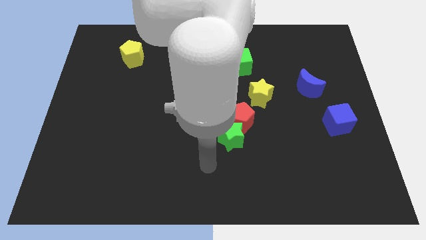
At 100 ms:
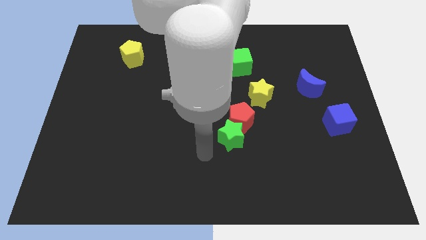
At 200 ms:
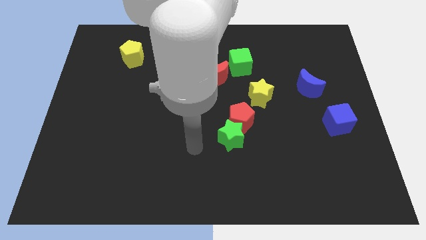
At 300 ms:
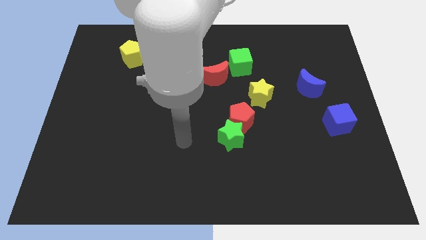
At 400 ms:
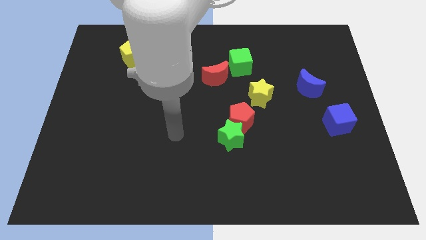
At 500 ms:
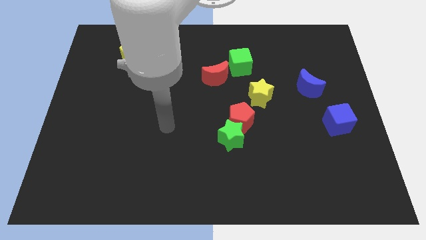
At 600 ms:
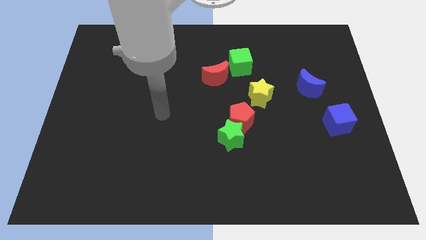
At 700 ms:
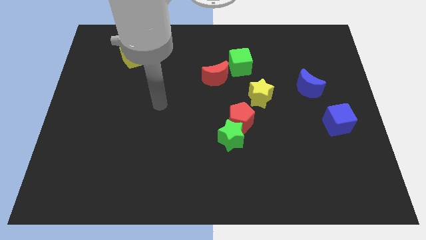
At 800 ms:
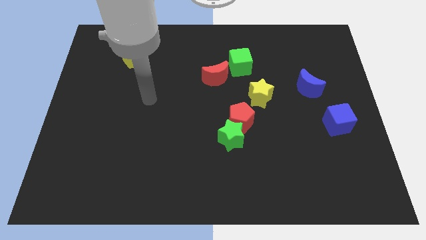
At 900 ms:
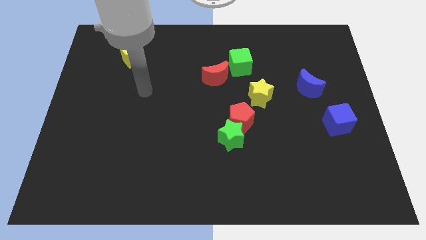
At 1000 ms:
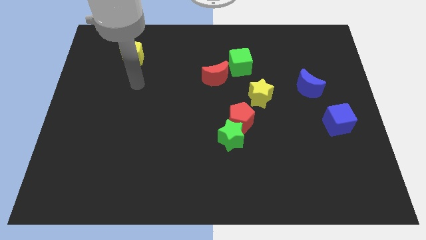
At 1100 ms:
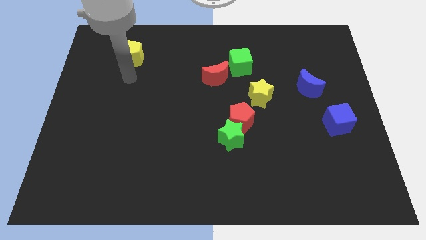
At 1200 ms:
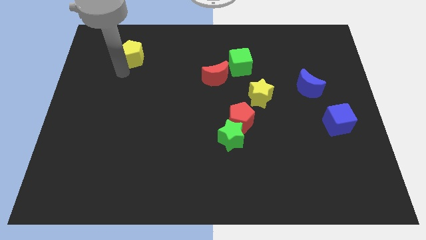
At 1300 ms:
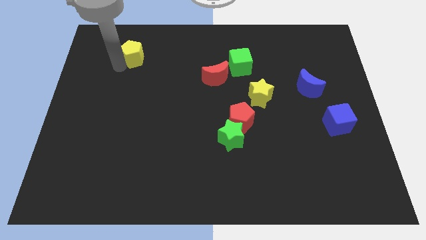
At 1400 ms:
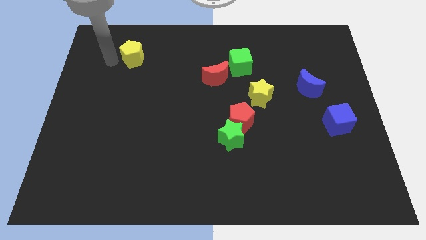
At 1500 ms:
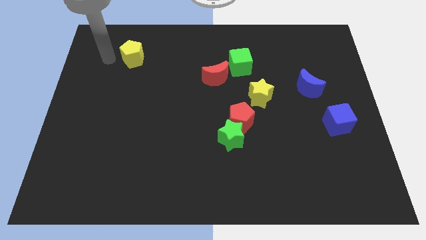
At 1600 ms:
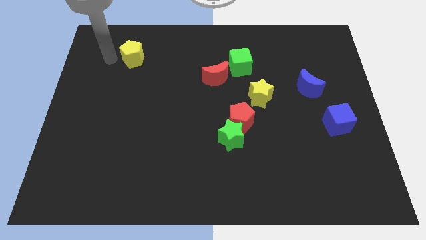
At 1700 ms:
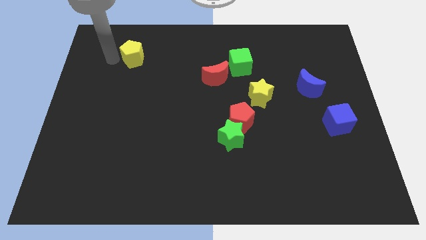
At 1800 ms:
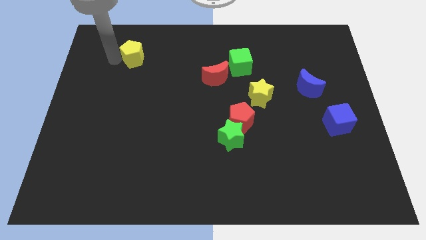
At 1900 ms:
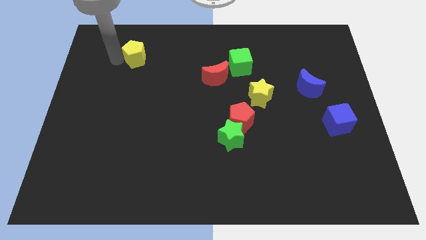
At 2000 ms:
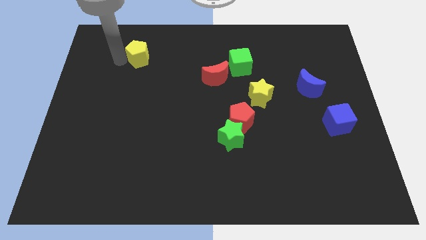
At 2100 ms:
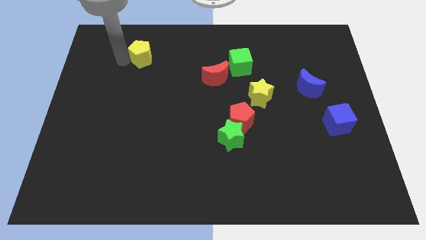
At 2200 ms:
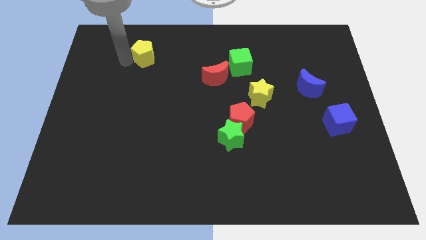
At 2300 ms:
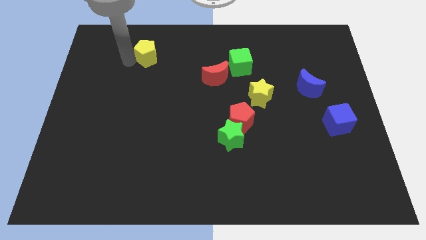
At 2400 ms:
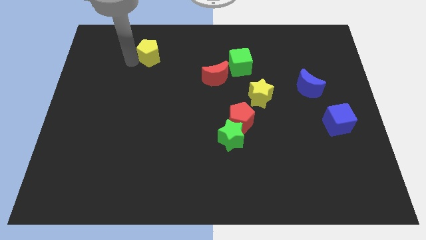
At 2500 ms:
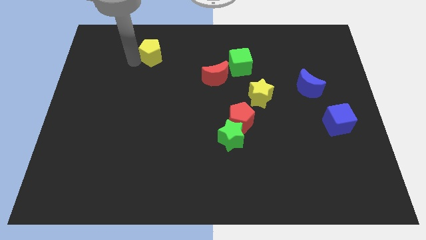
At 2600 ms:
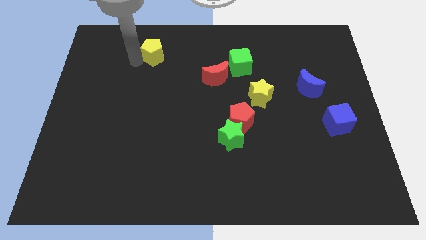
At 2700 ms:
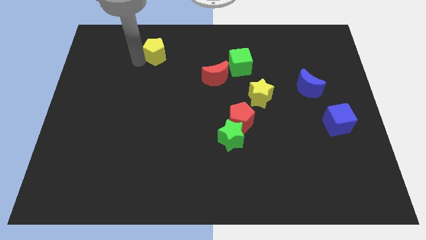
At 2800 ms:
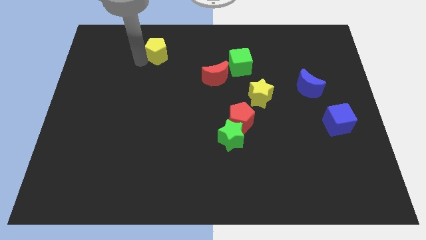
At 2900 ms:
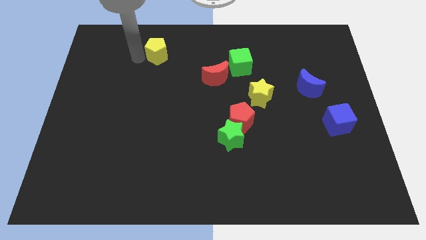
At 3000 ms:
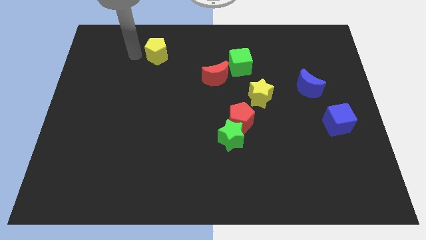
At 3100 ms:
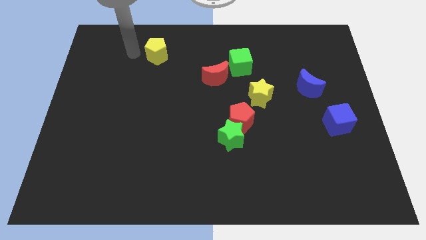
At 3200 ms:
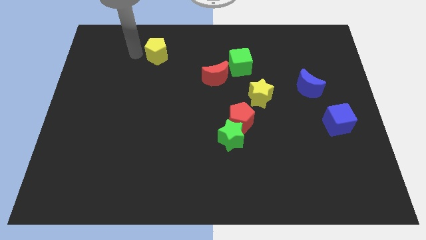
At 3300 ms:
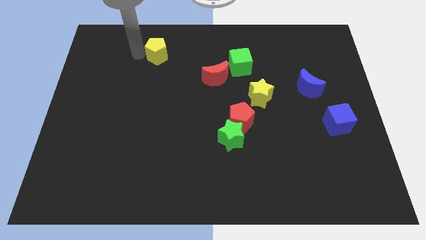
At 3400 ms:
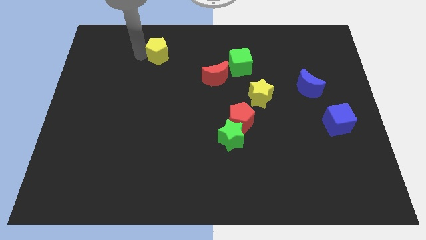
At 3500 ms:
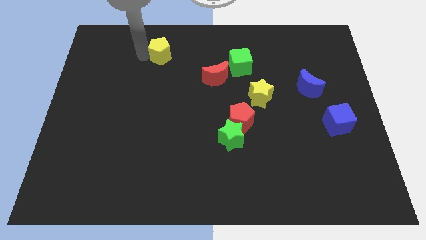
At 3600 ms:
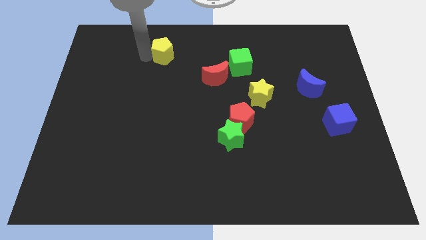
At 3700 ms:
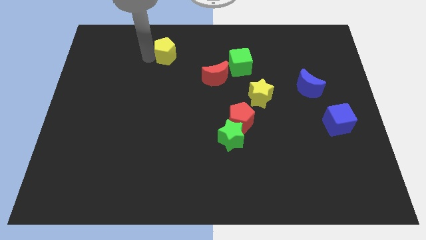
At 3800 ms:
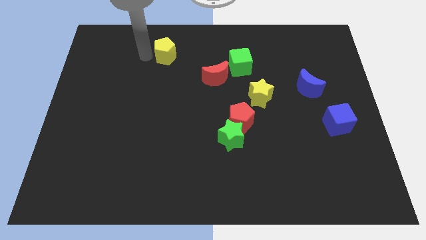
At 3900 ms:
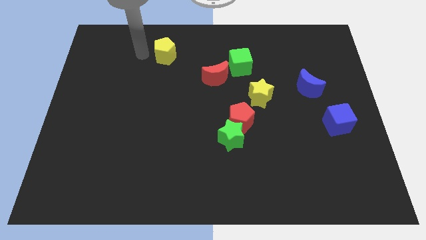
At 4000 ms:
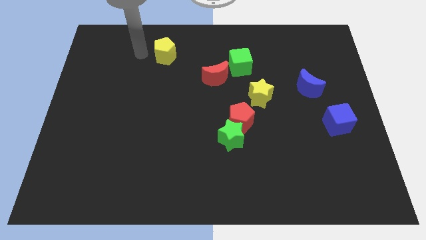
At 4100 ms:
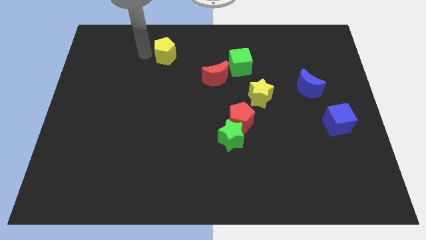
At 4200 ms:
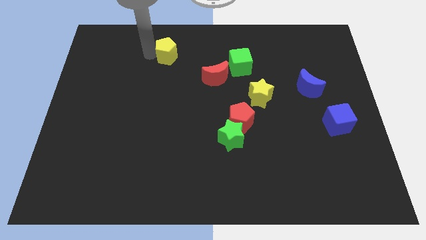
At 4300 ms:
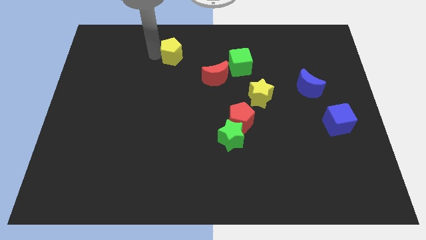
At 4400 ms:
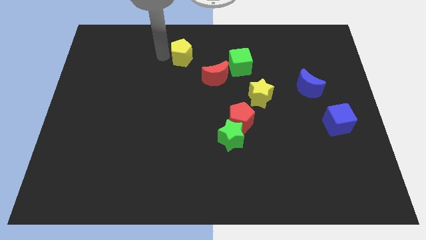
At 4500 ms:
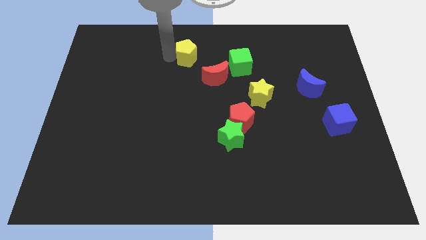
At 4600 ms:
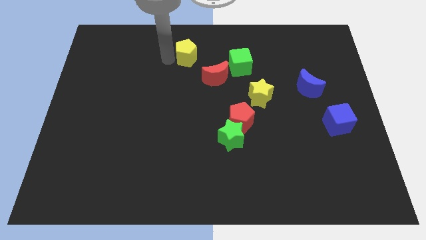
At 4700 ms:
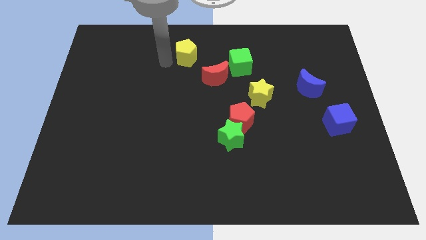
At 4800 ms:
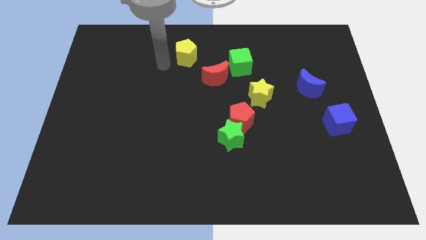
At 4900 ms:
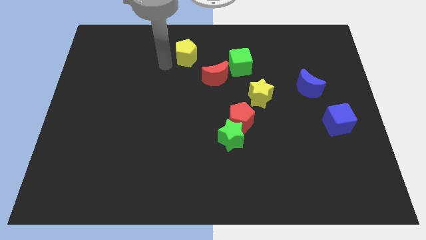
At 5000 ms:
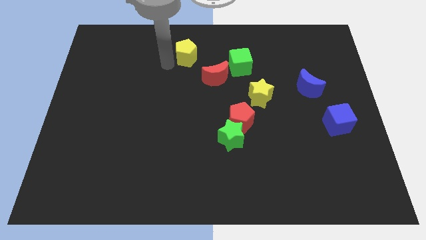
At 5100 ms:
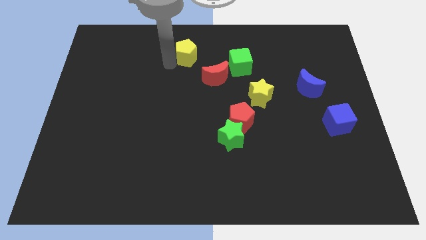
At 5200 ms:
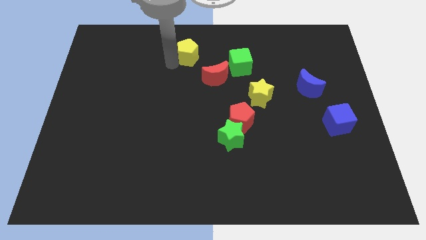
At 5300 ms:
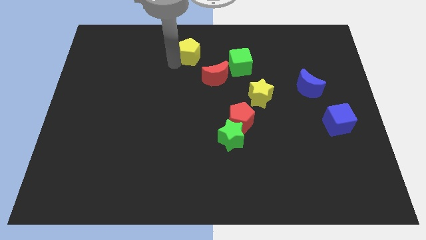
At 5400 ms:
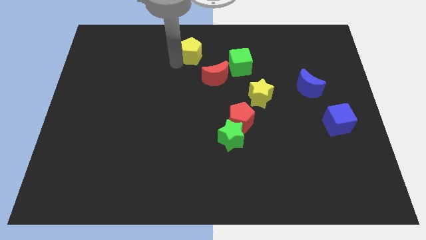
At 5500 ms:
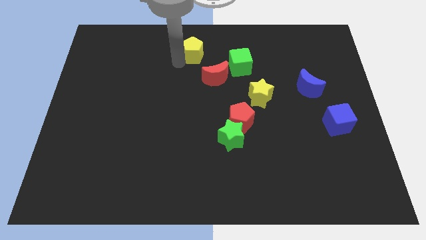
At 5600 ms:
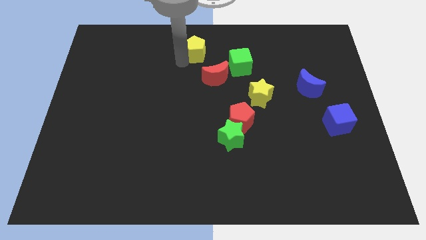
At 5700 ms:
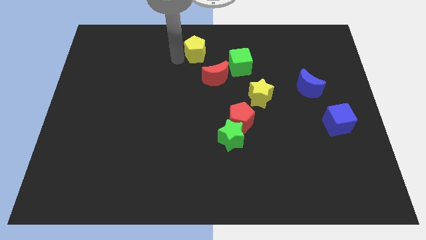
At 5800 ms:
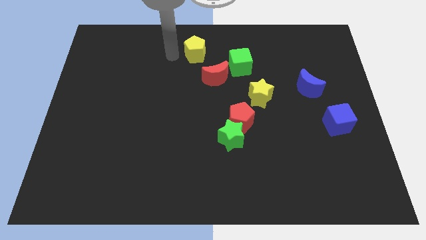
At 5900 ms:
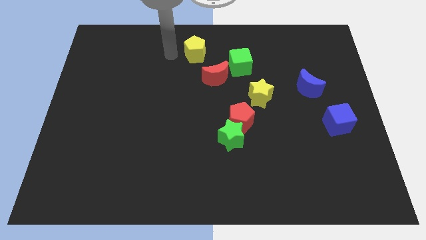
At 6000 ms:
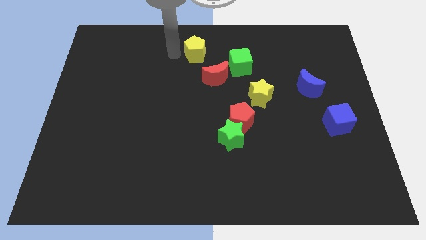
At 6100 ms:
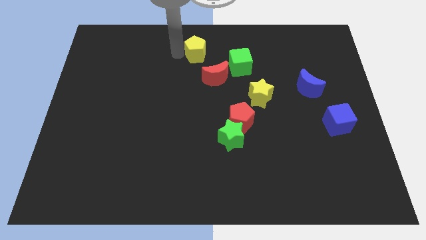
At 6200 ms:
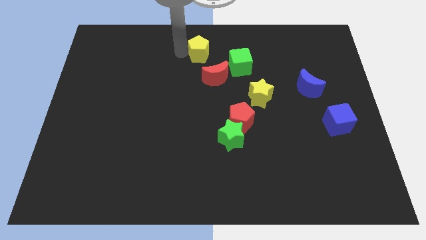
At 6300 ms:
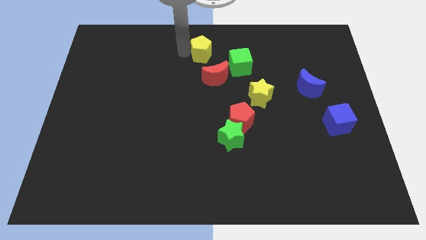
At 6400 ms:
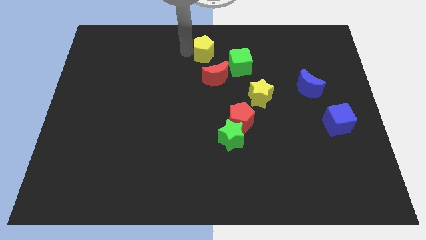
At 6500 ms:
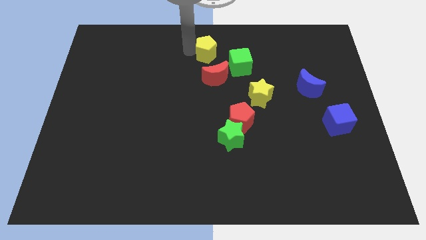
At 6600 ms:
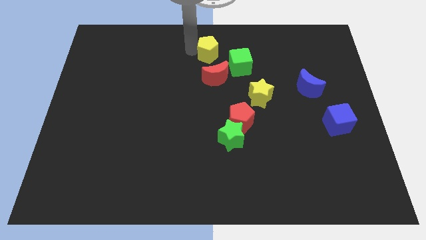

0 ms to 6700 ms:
push the yellow pentagon to the right

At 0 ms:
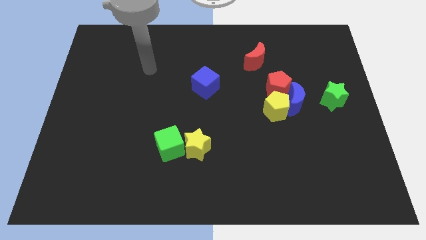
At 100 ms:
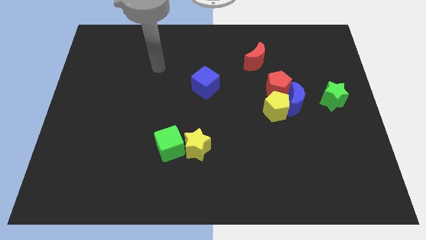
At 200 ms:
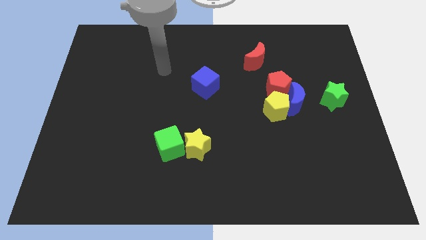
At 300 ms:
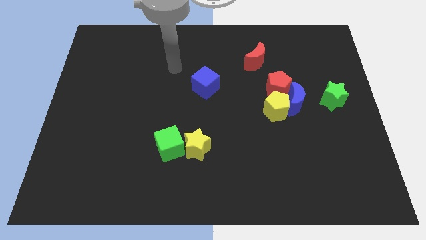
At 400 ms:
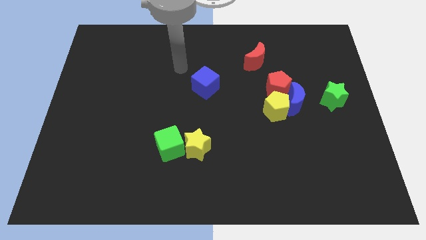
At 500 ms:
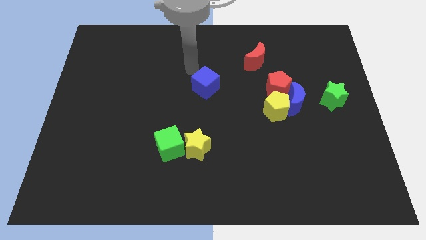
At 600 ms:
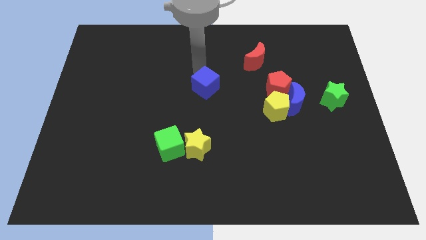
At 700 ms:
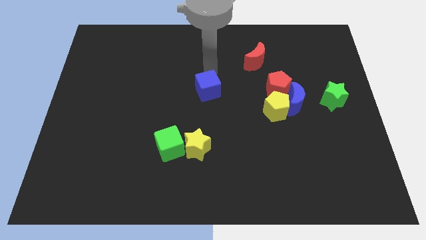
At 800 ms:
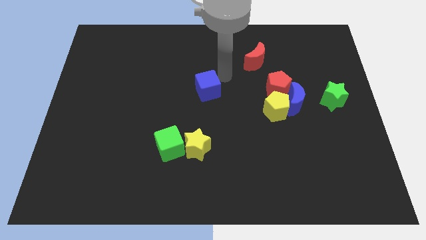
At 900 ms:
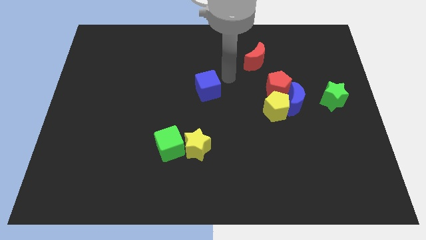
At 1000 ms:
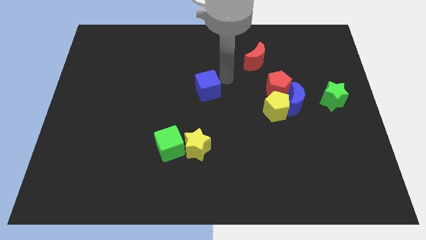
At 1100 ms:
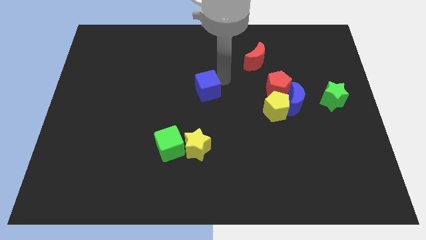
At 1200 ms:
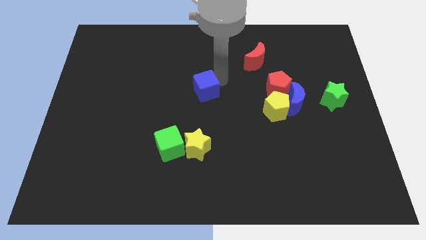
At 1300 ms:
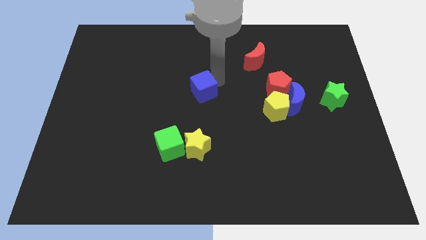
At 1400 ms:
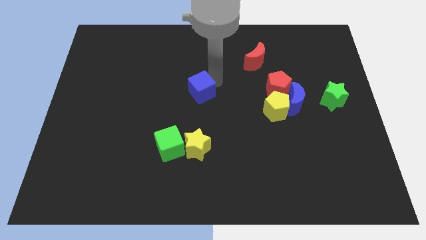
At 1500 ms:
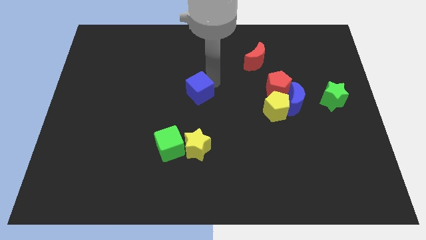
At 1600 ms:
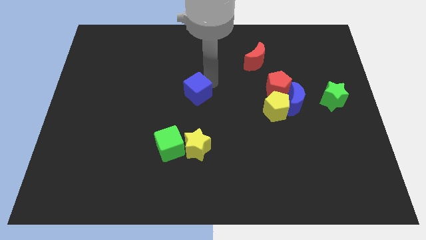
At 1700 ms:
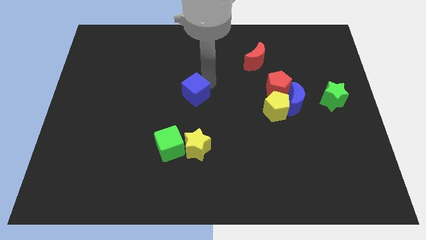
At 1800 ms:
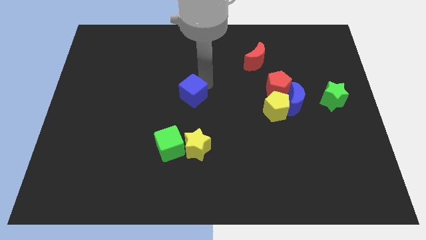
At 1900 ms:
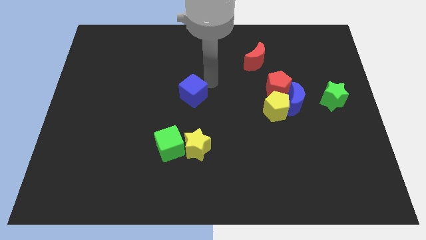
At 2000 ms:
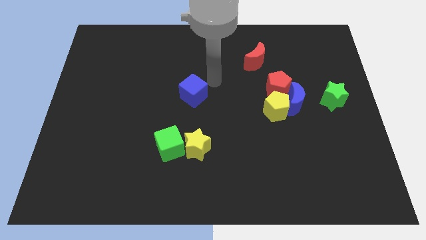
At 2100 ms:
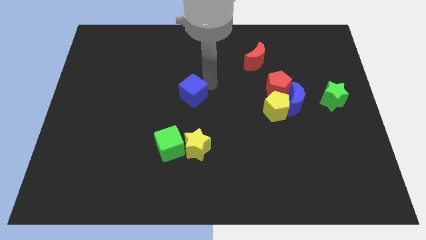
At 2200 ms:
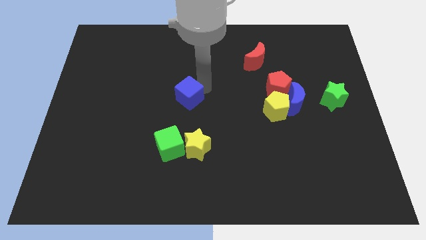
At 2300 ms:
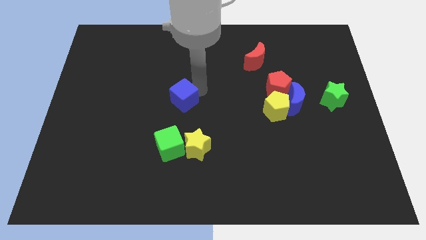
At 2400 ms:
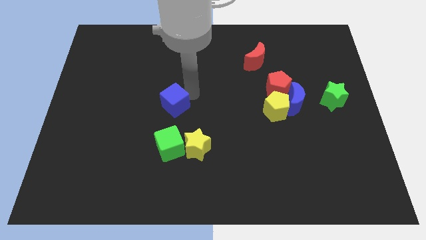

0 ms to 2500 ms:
slightly slide the blue cube down and left
